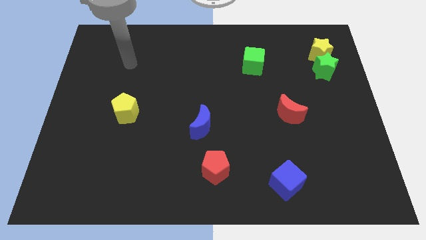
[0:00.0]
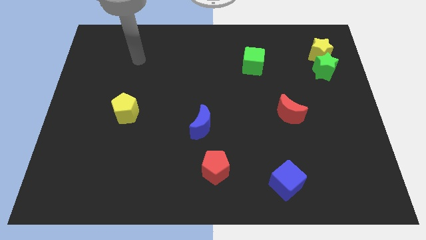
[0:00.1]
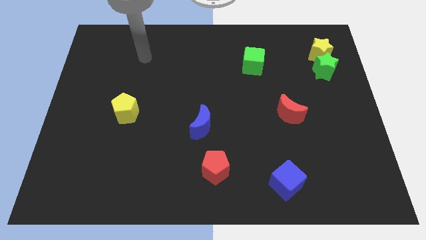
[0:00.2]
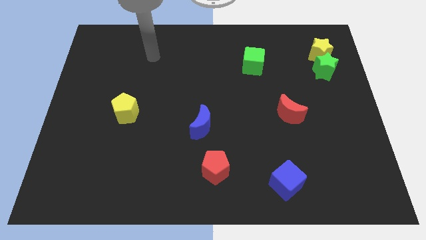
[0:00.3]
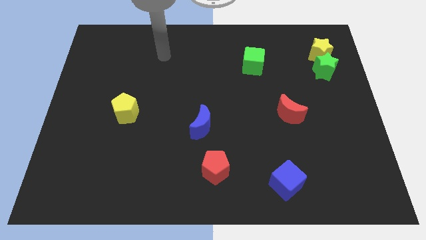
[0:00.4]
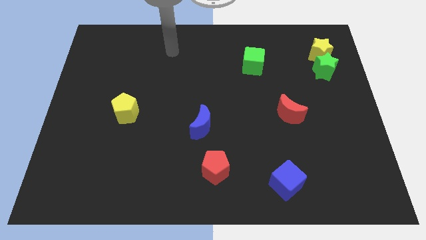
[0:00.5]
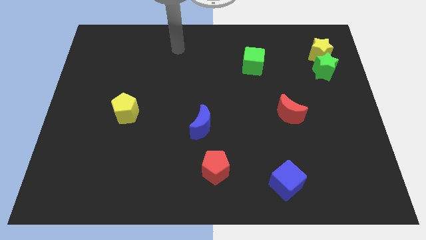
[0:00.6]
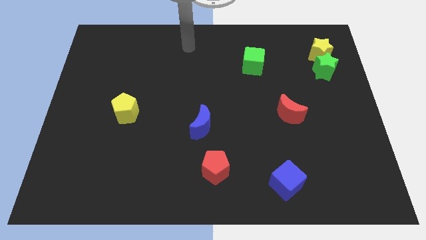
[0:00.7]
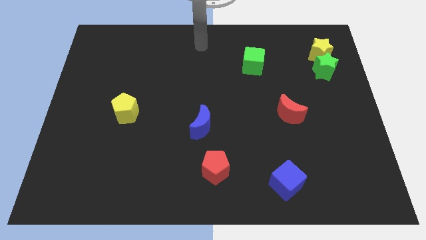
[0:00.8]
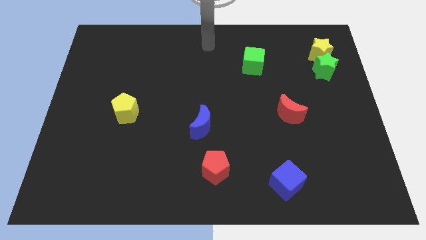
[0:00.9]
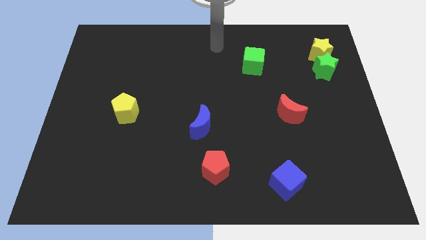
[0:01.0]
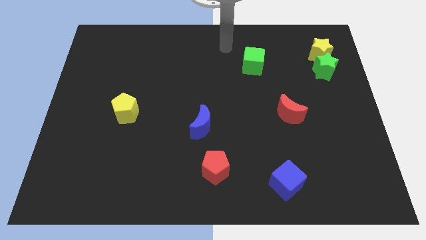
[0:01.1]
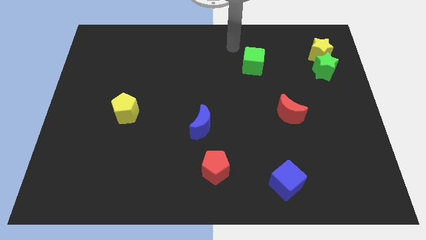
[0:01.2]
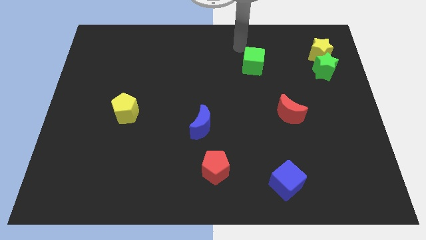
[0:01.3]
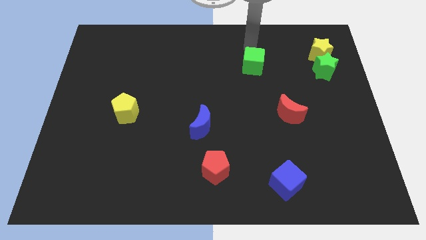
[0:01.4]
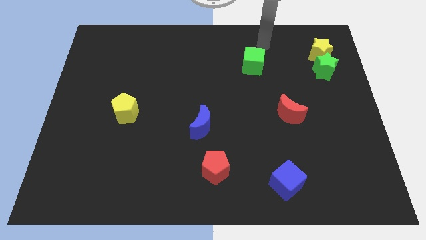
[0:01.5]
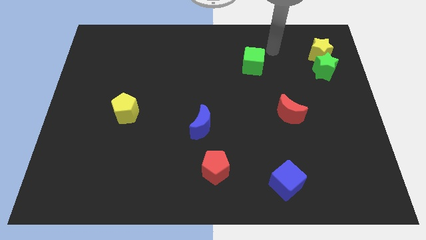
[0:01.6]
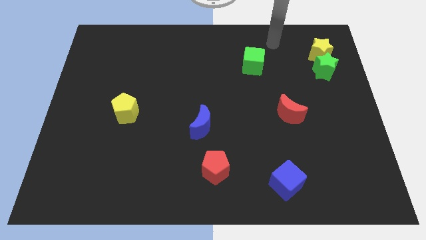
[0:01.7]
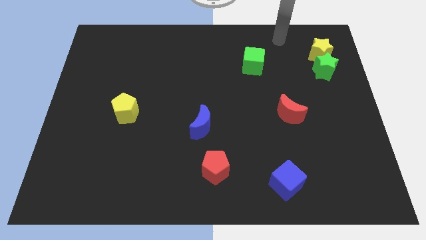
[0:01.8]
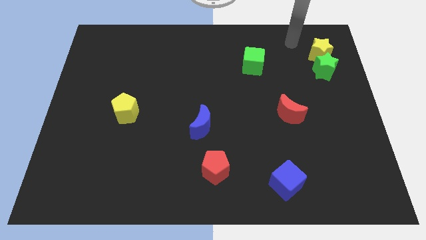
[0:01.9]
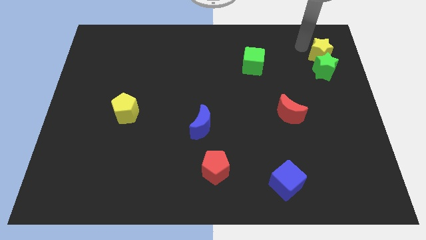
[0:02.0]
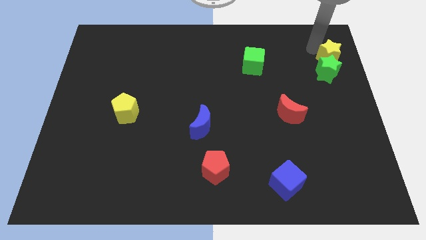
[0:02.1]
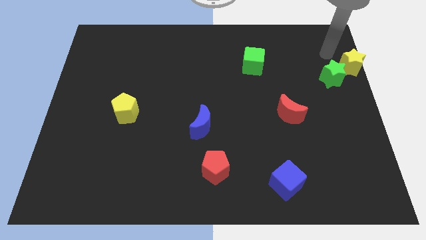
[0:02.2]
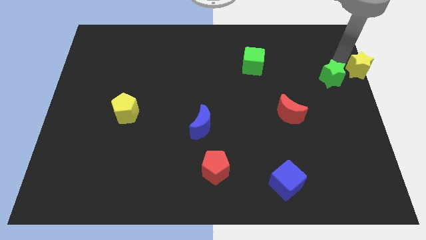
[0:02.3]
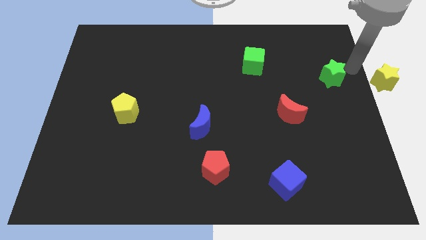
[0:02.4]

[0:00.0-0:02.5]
pull the green star apart from the yellow star

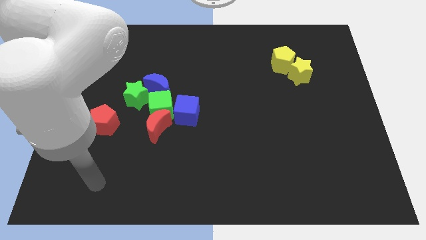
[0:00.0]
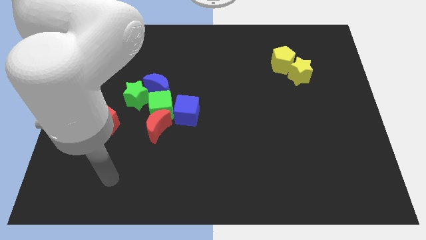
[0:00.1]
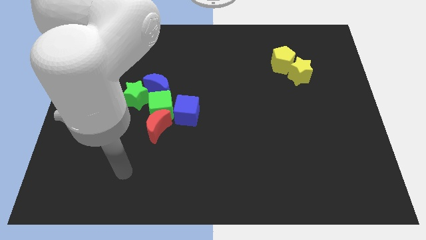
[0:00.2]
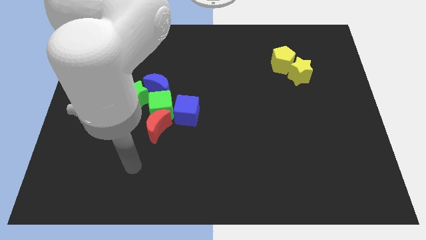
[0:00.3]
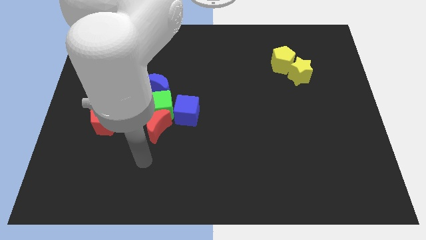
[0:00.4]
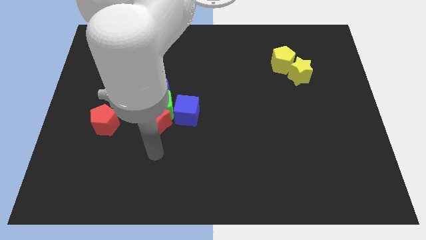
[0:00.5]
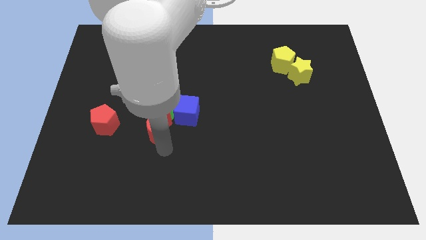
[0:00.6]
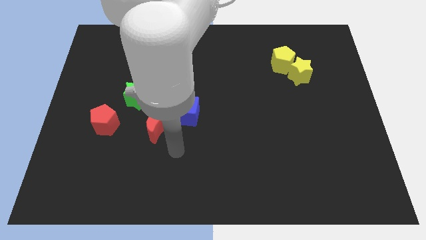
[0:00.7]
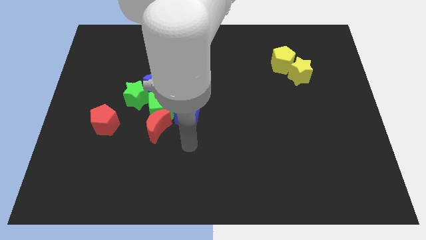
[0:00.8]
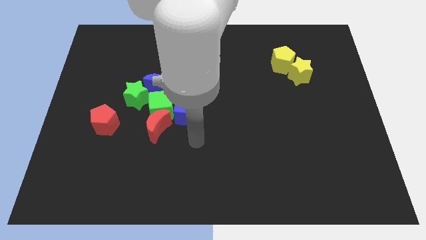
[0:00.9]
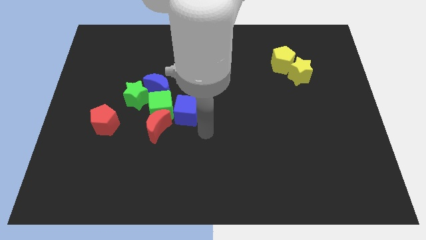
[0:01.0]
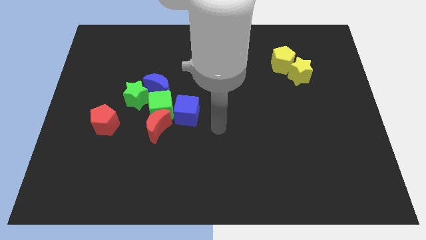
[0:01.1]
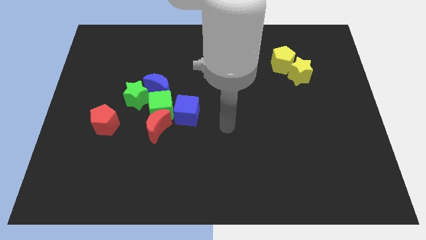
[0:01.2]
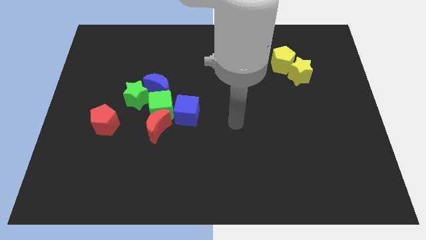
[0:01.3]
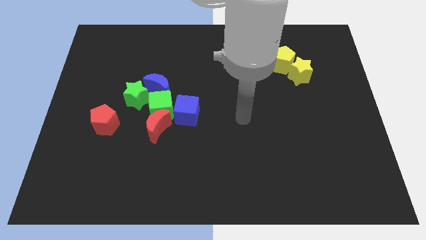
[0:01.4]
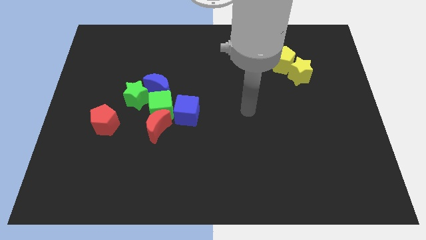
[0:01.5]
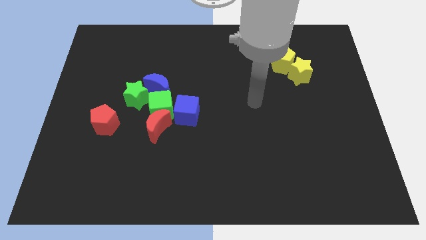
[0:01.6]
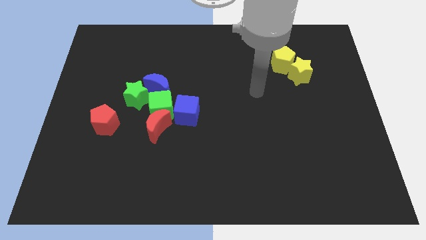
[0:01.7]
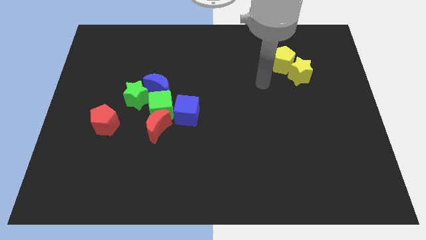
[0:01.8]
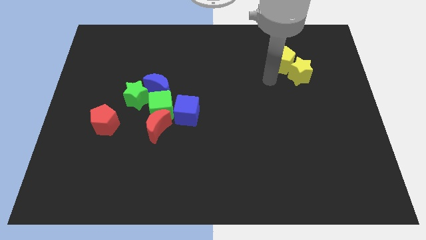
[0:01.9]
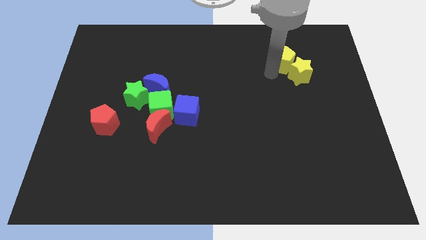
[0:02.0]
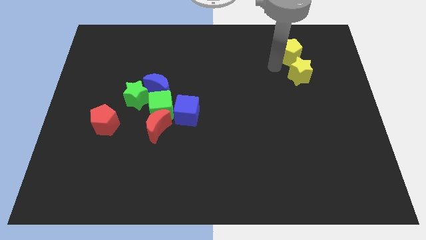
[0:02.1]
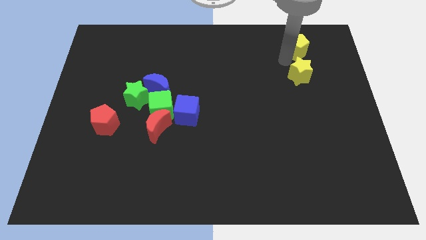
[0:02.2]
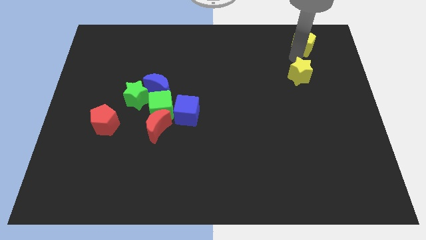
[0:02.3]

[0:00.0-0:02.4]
move the yellow star away from the yellow pentagon

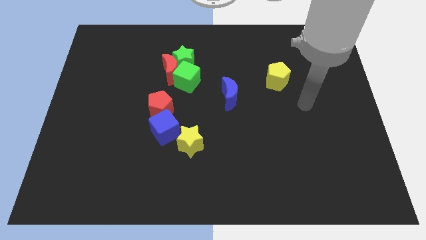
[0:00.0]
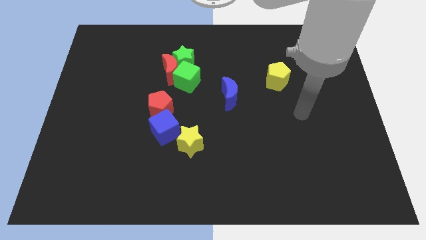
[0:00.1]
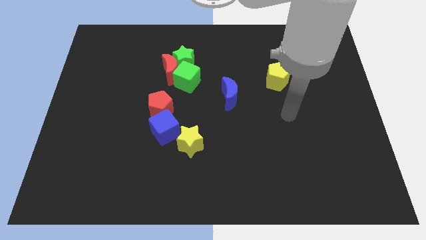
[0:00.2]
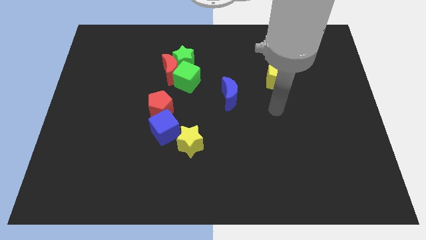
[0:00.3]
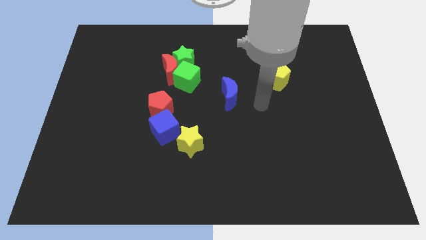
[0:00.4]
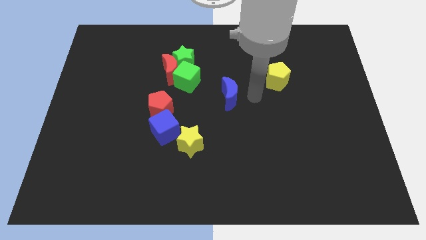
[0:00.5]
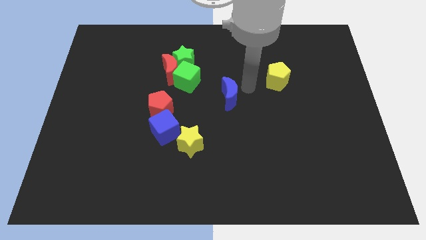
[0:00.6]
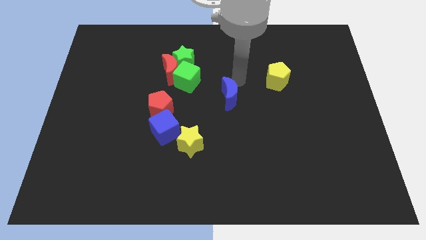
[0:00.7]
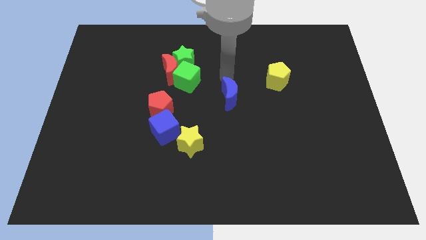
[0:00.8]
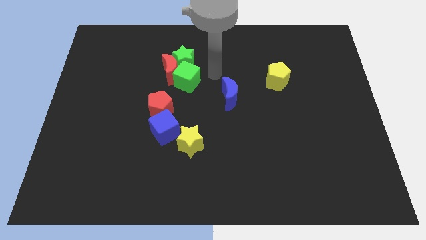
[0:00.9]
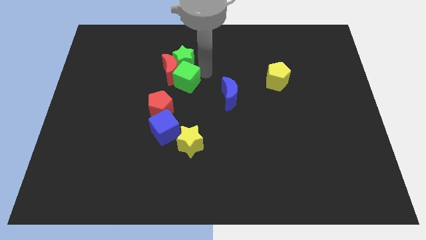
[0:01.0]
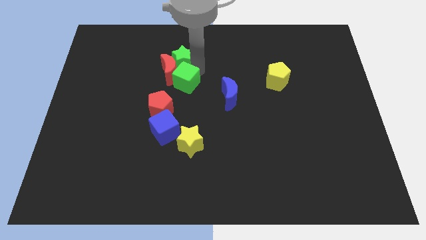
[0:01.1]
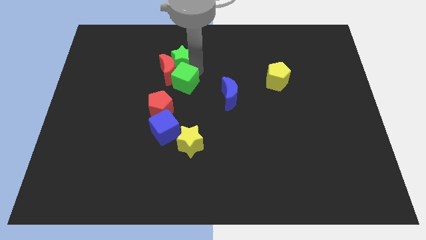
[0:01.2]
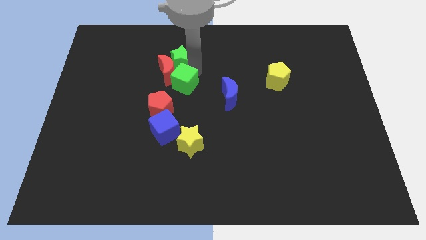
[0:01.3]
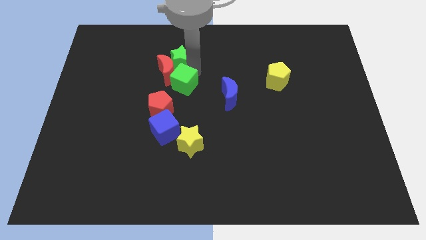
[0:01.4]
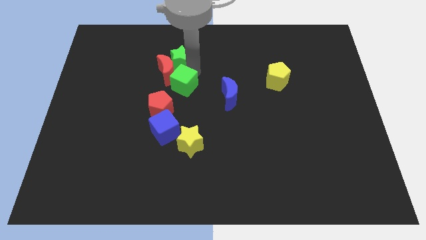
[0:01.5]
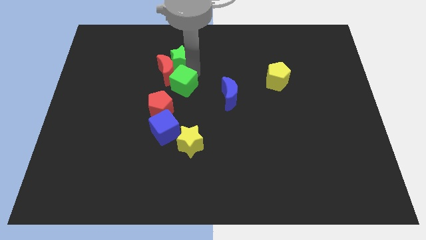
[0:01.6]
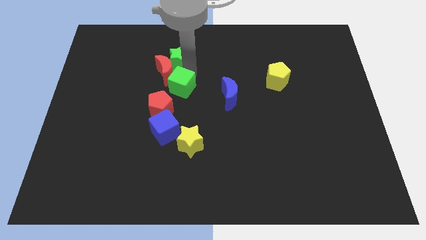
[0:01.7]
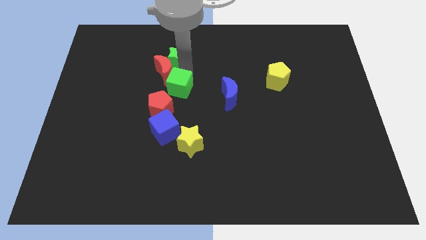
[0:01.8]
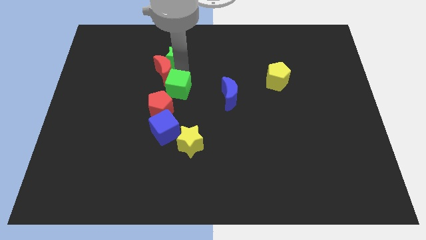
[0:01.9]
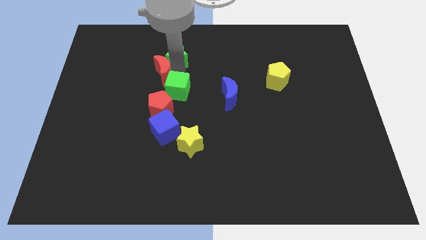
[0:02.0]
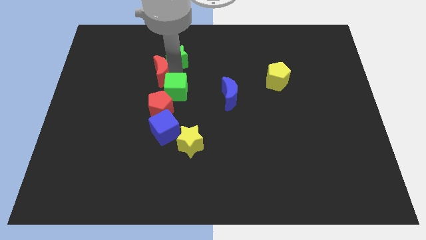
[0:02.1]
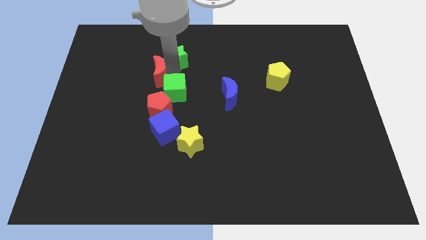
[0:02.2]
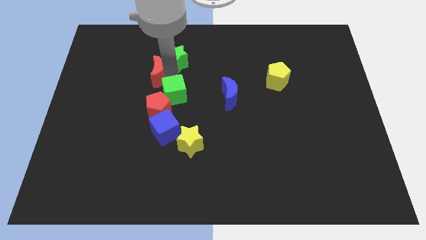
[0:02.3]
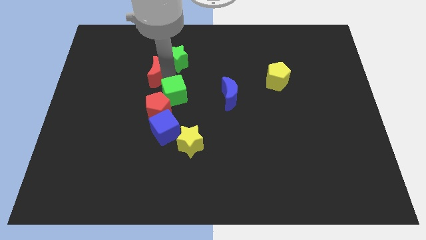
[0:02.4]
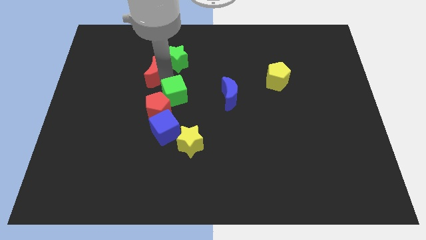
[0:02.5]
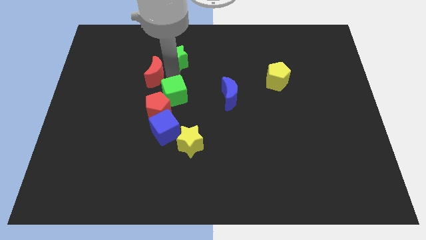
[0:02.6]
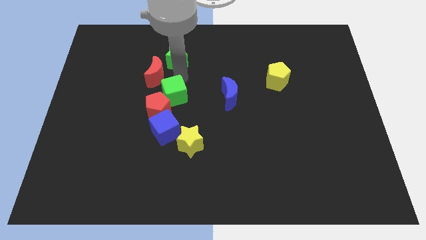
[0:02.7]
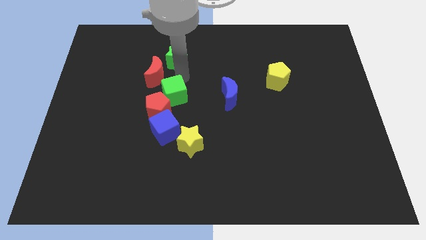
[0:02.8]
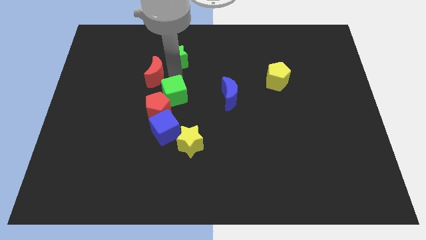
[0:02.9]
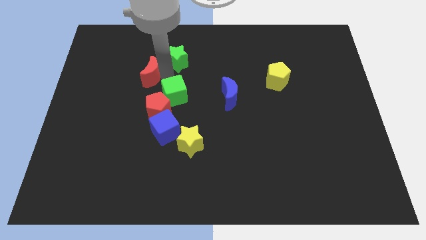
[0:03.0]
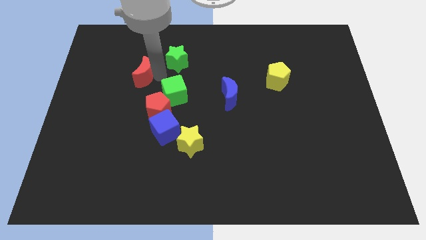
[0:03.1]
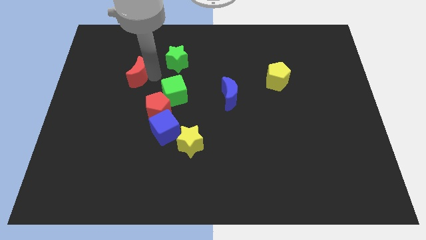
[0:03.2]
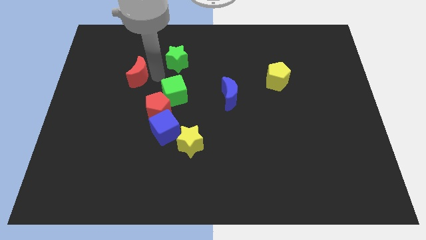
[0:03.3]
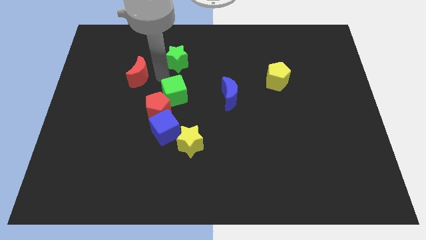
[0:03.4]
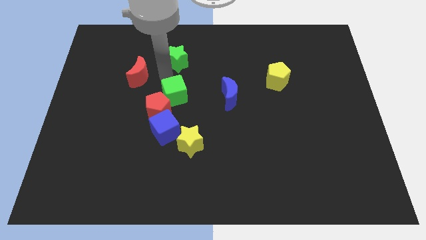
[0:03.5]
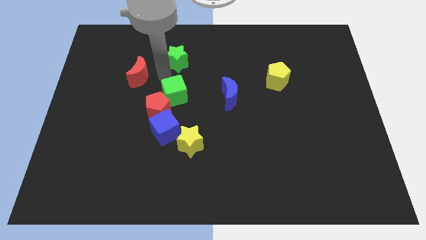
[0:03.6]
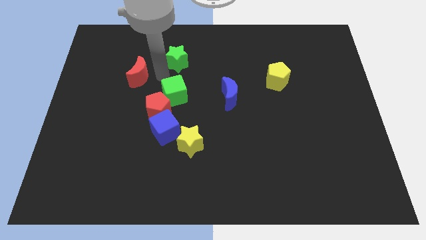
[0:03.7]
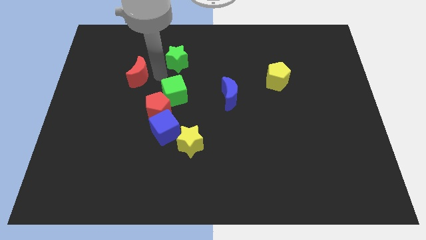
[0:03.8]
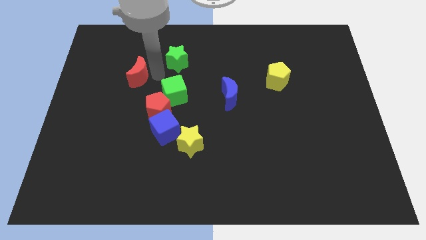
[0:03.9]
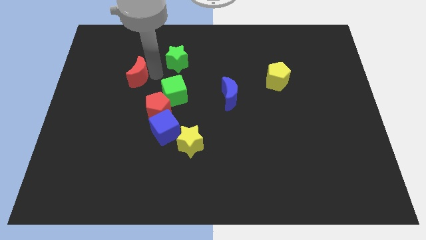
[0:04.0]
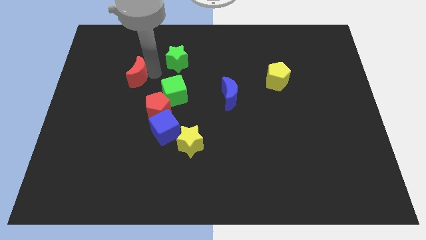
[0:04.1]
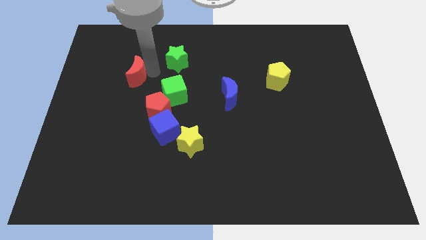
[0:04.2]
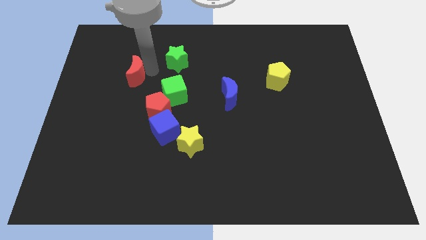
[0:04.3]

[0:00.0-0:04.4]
separate the red moon from the green star and green cube

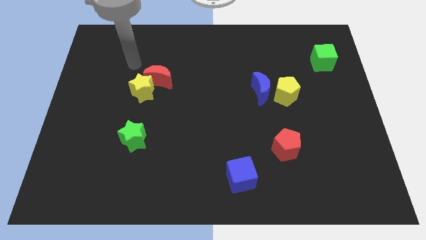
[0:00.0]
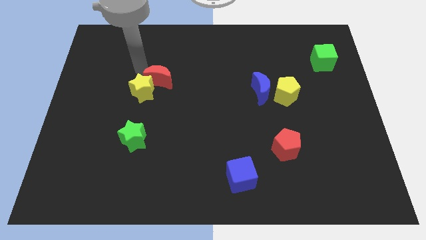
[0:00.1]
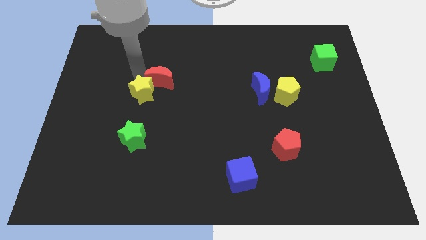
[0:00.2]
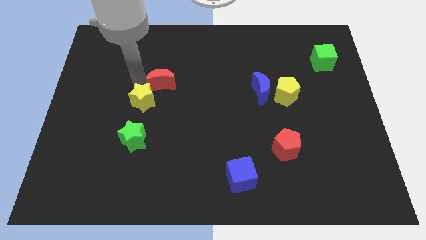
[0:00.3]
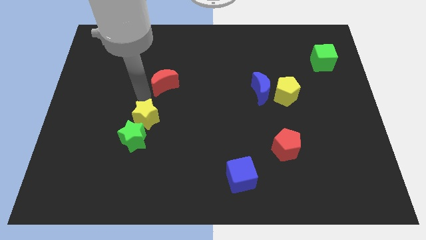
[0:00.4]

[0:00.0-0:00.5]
separate the red moon from the yellow star
